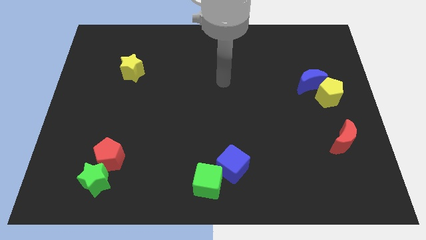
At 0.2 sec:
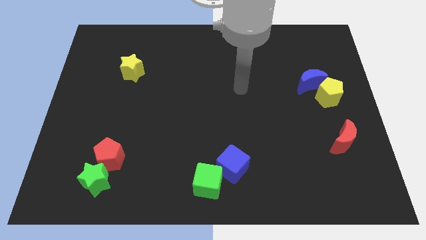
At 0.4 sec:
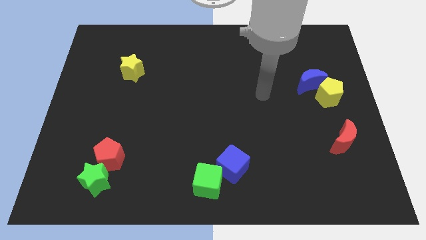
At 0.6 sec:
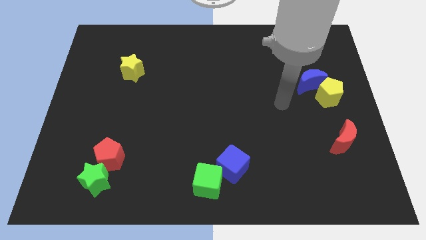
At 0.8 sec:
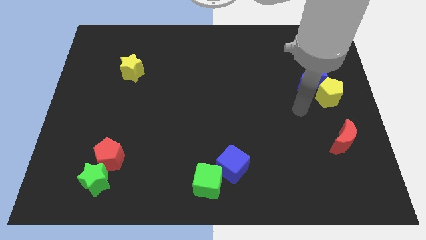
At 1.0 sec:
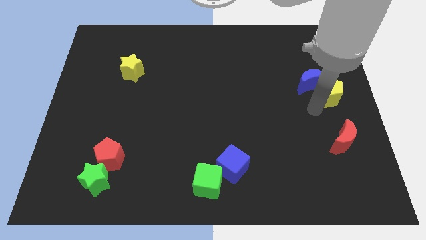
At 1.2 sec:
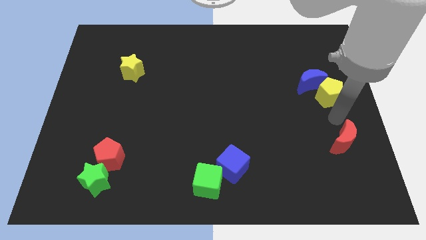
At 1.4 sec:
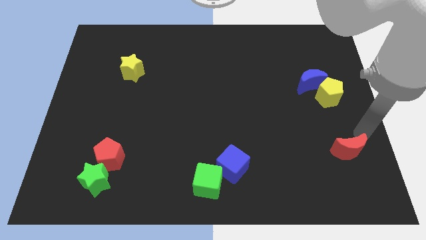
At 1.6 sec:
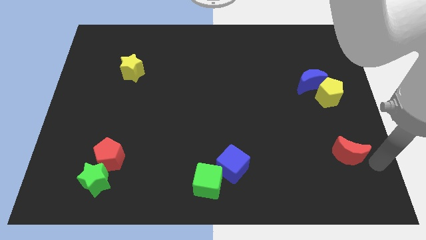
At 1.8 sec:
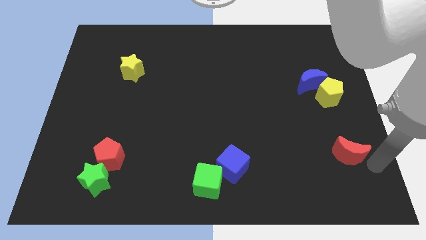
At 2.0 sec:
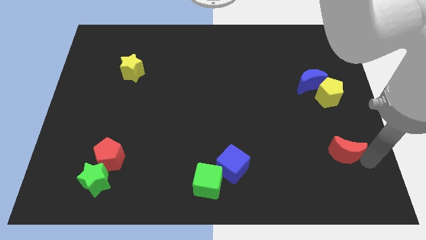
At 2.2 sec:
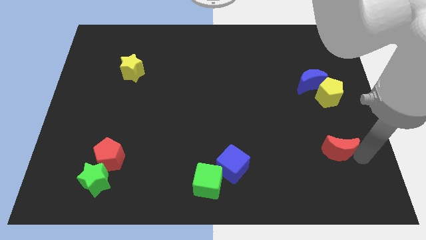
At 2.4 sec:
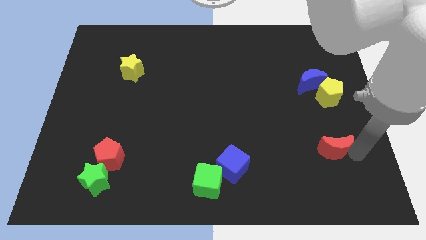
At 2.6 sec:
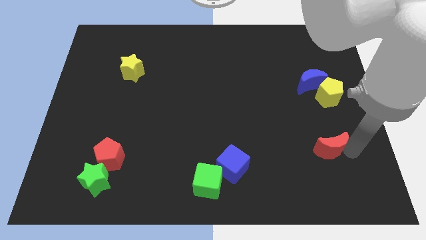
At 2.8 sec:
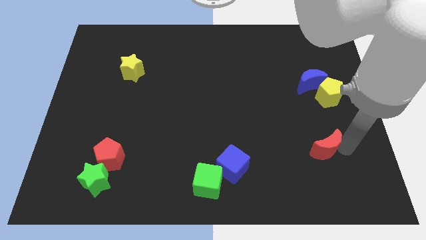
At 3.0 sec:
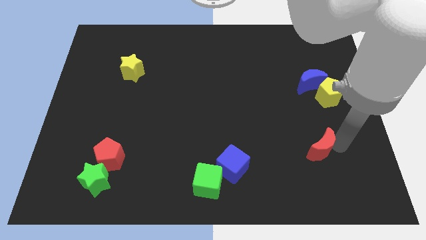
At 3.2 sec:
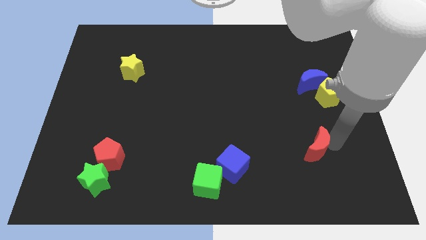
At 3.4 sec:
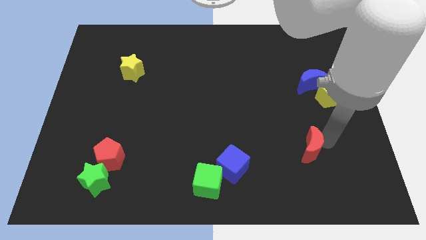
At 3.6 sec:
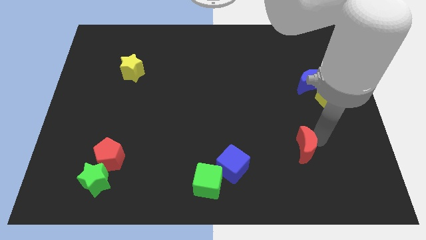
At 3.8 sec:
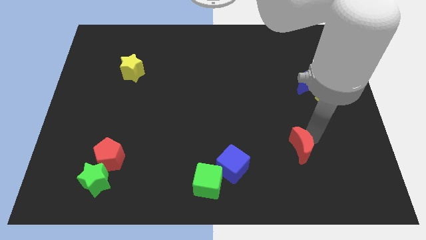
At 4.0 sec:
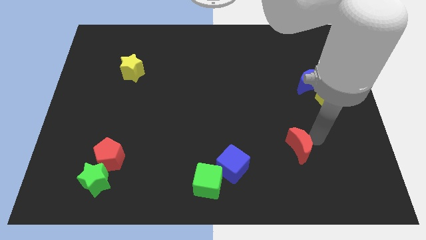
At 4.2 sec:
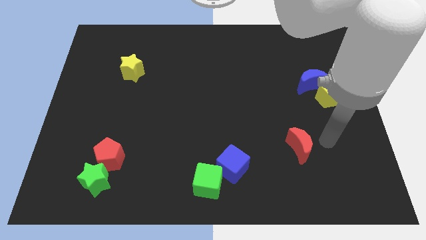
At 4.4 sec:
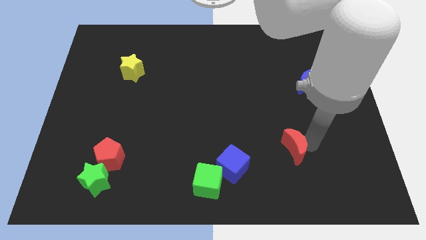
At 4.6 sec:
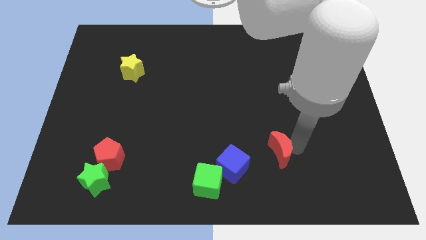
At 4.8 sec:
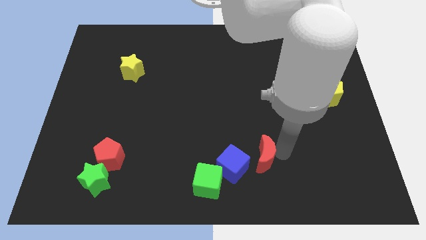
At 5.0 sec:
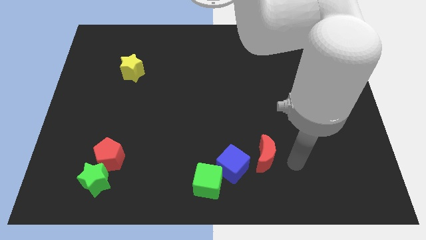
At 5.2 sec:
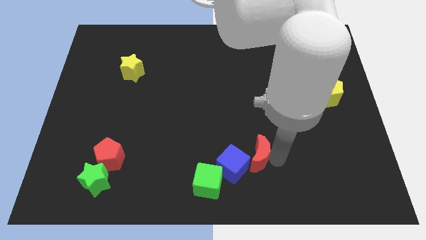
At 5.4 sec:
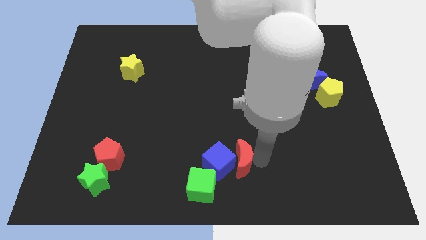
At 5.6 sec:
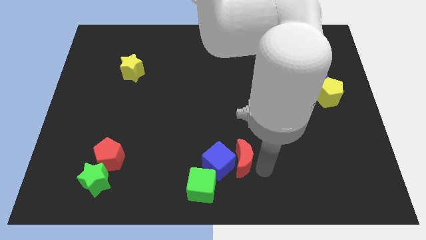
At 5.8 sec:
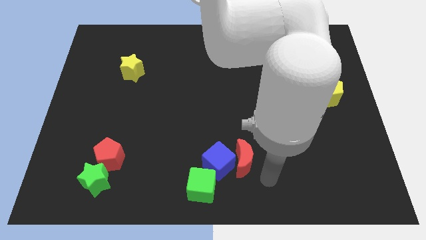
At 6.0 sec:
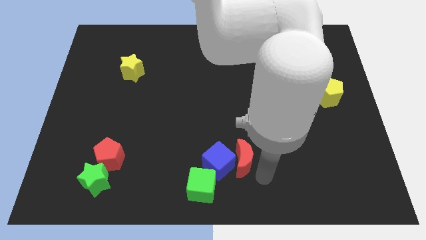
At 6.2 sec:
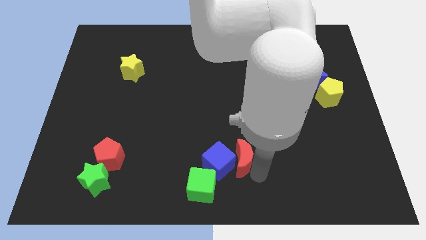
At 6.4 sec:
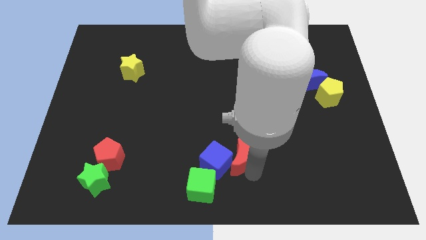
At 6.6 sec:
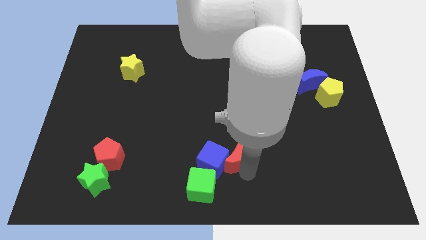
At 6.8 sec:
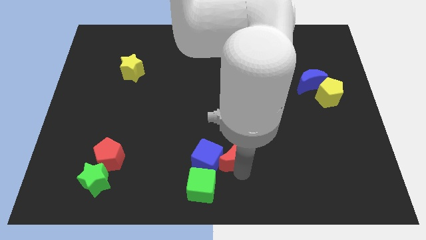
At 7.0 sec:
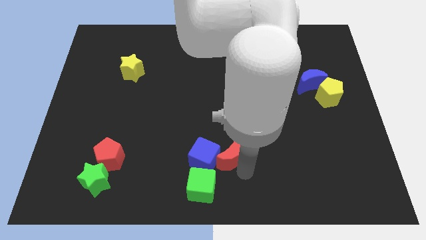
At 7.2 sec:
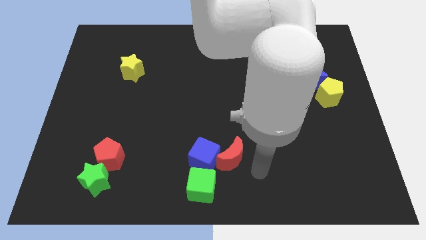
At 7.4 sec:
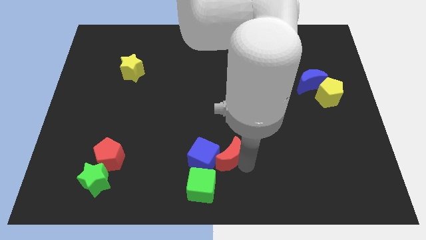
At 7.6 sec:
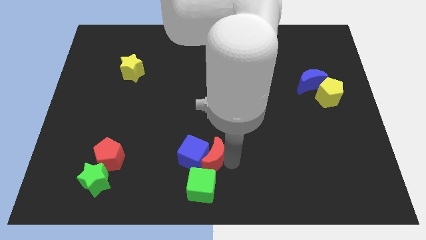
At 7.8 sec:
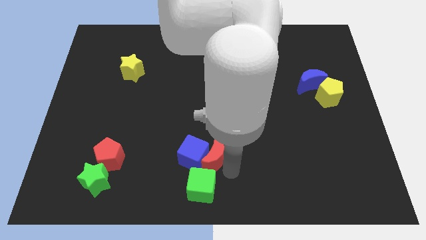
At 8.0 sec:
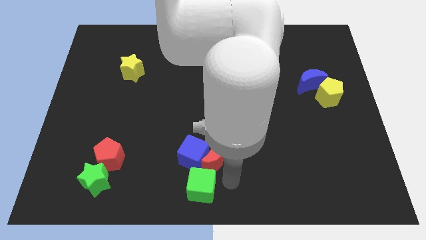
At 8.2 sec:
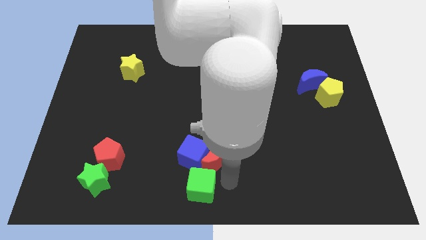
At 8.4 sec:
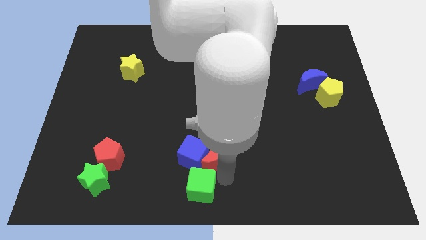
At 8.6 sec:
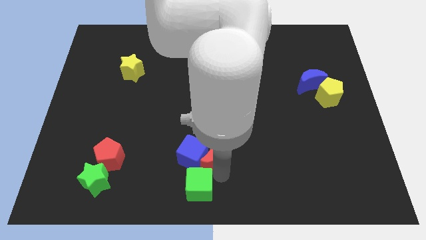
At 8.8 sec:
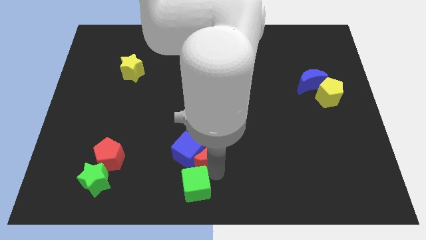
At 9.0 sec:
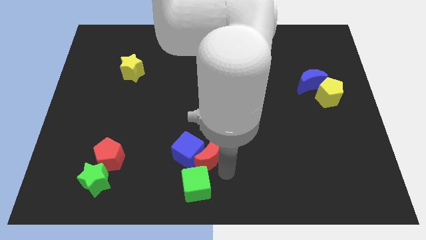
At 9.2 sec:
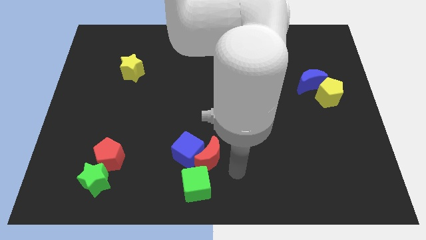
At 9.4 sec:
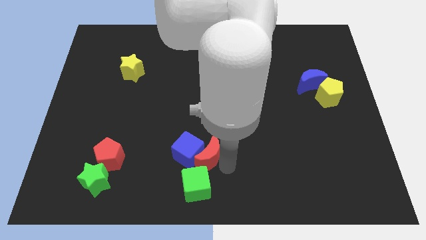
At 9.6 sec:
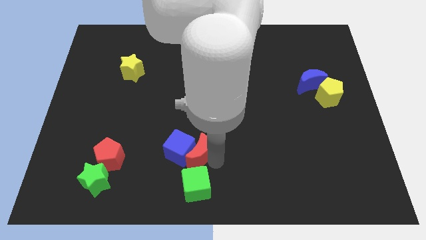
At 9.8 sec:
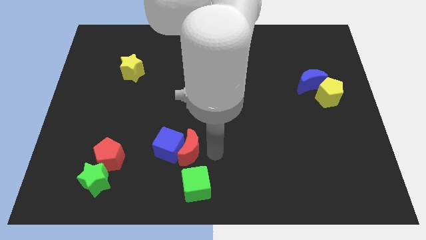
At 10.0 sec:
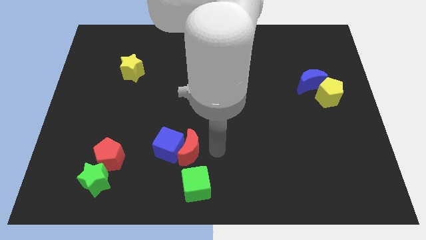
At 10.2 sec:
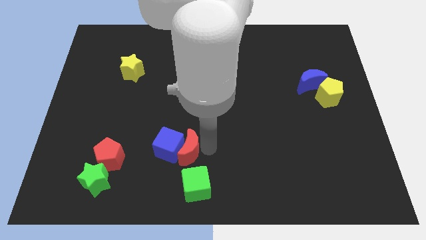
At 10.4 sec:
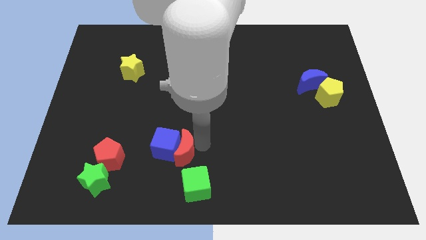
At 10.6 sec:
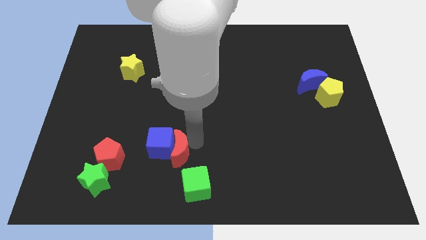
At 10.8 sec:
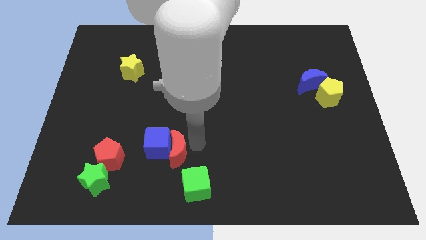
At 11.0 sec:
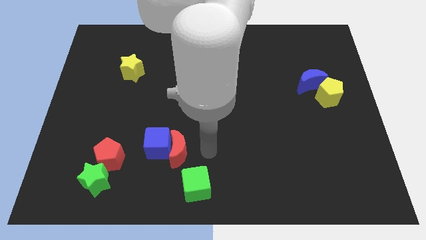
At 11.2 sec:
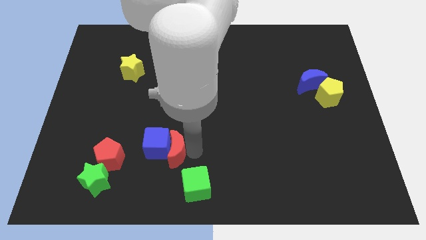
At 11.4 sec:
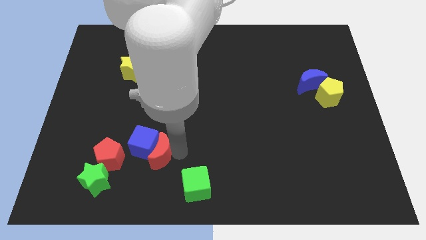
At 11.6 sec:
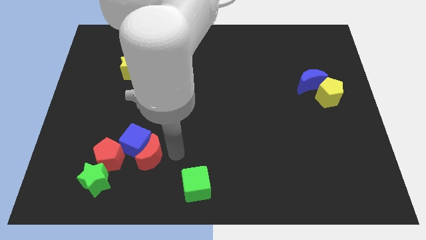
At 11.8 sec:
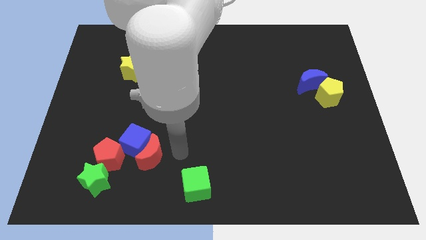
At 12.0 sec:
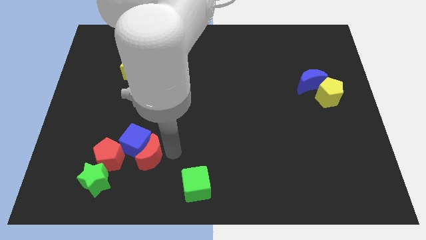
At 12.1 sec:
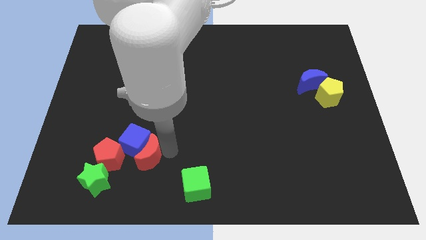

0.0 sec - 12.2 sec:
put the red moon to the top right of the green star

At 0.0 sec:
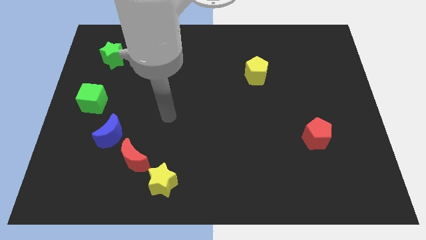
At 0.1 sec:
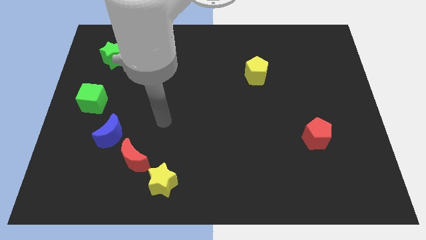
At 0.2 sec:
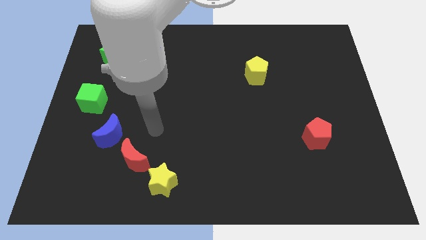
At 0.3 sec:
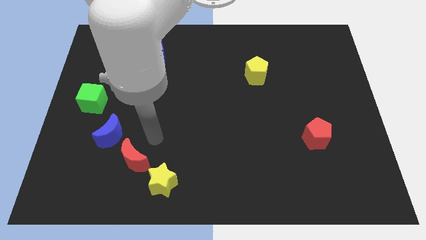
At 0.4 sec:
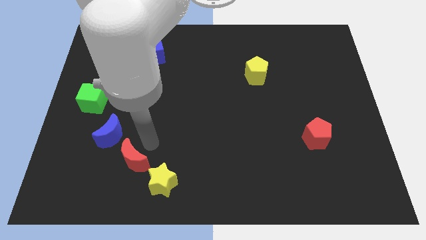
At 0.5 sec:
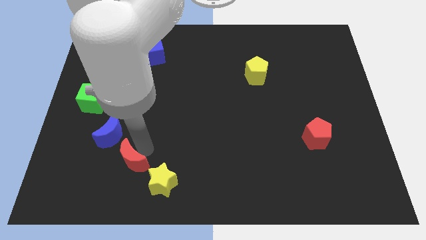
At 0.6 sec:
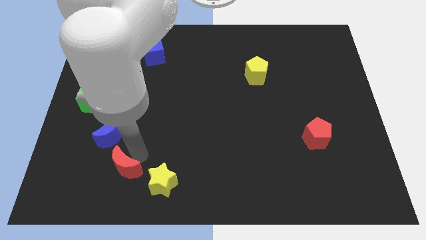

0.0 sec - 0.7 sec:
move the red moon to the left side of the yellow star
